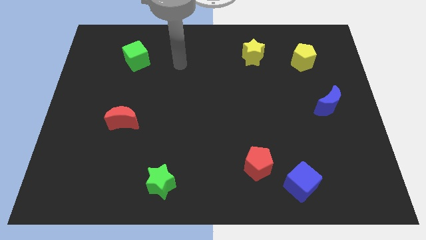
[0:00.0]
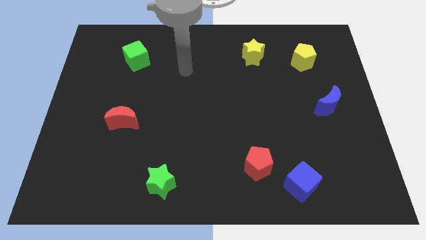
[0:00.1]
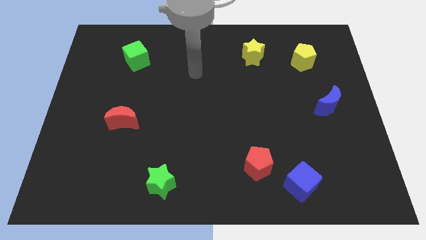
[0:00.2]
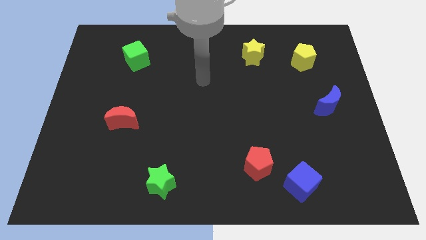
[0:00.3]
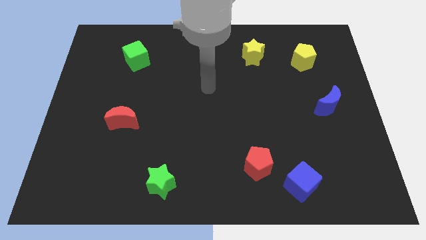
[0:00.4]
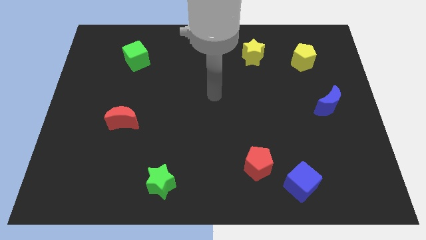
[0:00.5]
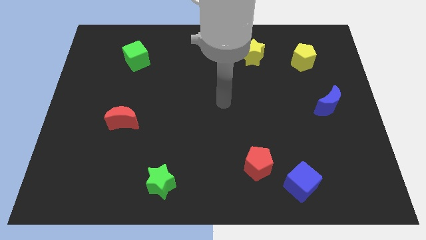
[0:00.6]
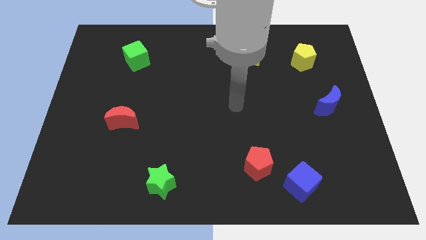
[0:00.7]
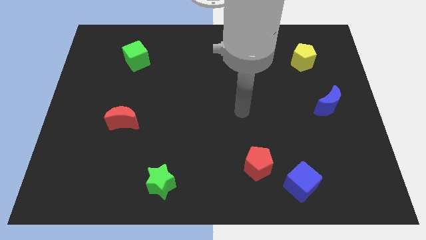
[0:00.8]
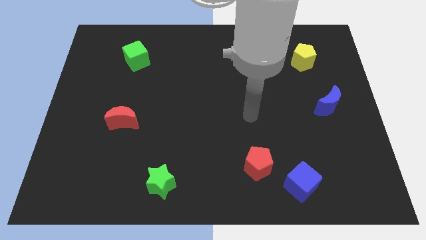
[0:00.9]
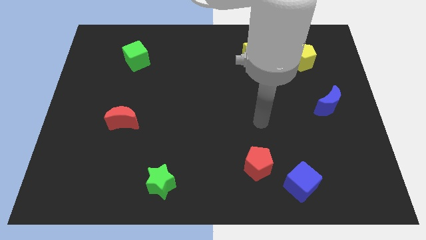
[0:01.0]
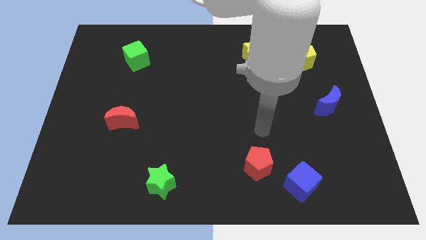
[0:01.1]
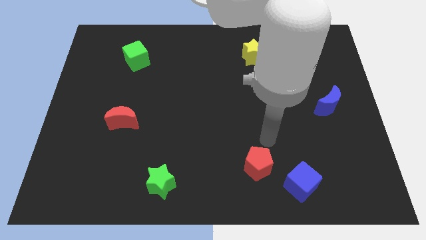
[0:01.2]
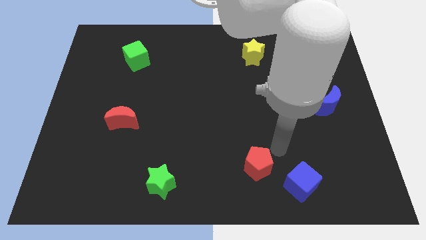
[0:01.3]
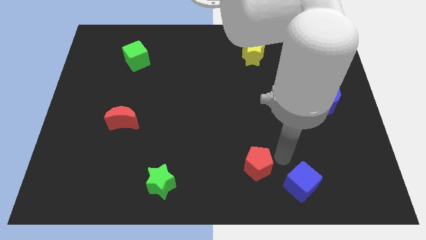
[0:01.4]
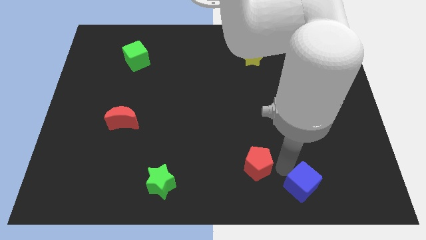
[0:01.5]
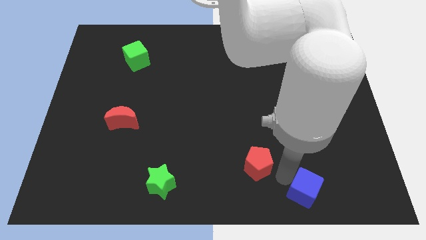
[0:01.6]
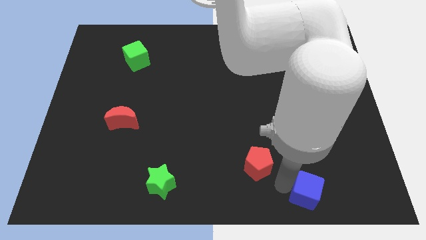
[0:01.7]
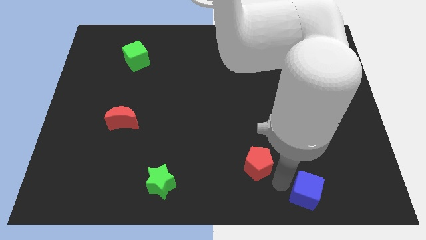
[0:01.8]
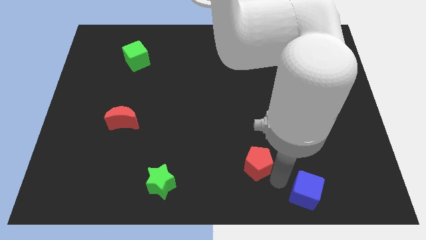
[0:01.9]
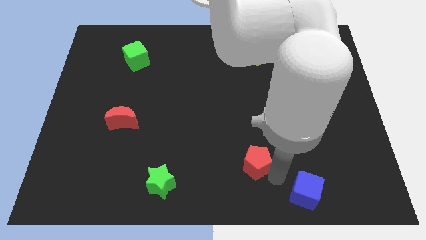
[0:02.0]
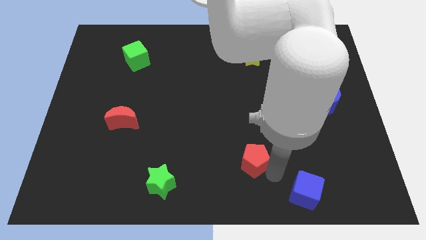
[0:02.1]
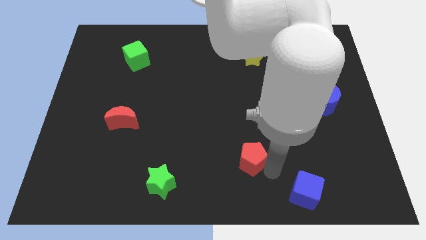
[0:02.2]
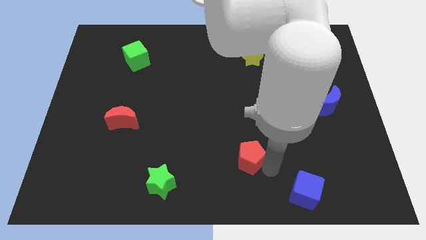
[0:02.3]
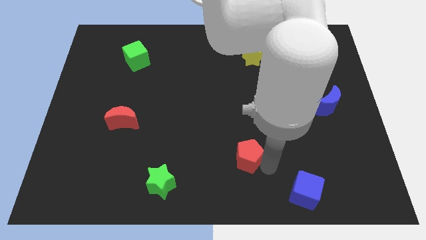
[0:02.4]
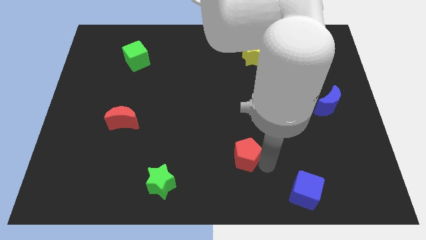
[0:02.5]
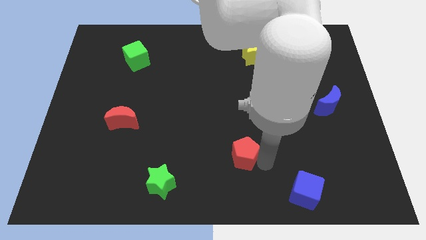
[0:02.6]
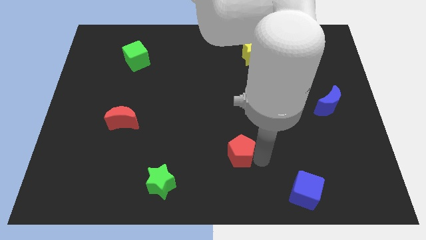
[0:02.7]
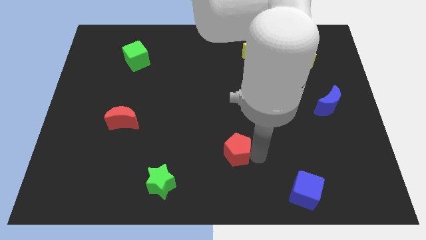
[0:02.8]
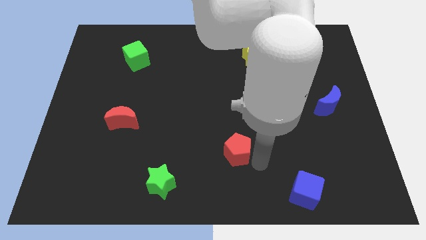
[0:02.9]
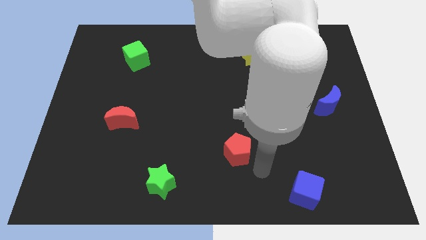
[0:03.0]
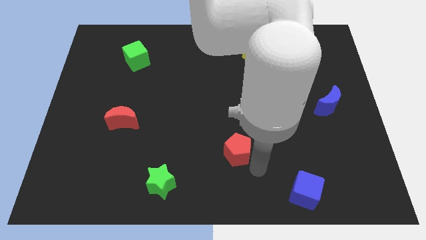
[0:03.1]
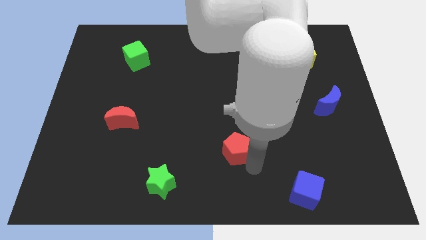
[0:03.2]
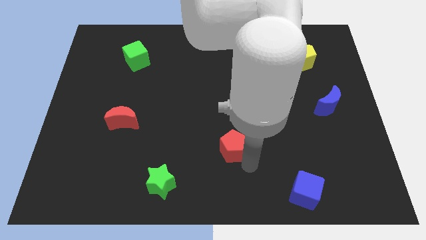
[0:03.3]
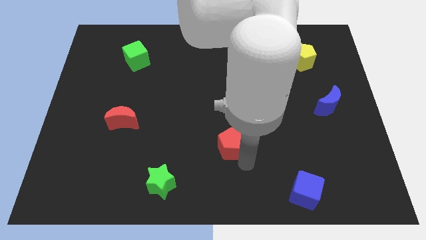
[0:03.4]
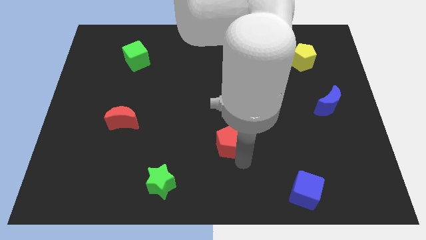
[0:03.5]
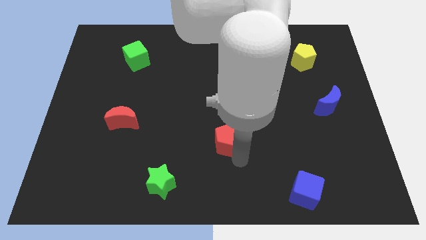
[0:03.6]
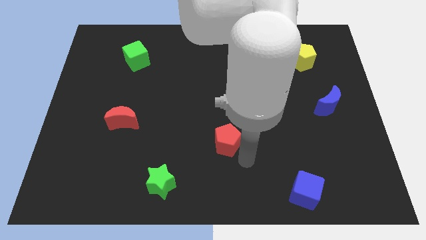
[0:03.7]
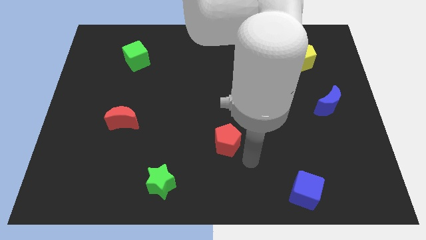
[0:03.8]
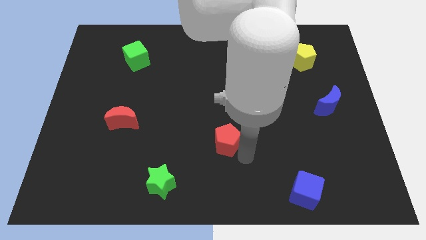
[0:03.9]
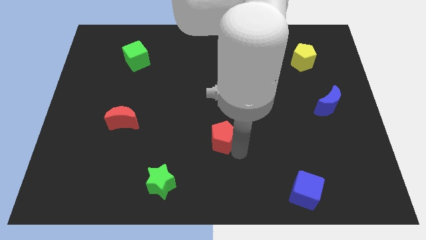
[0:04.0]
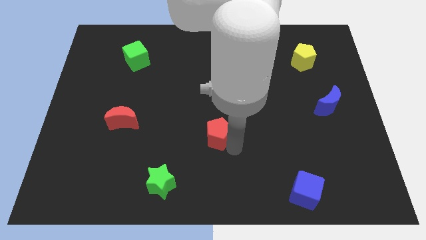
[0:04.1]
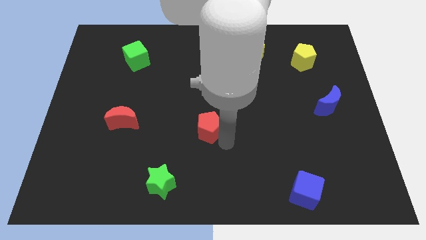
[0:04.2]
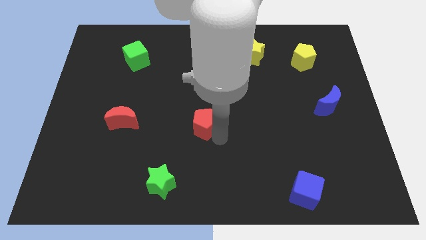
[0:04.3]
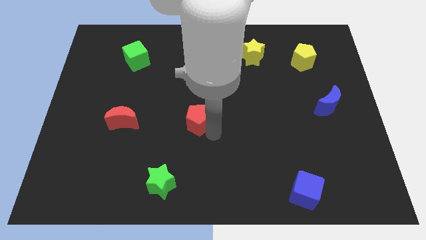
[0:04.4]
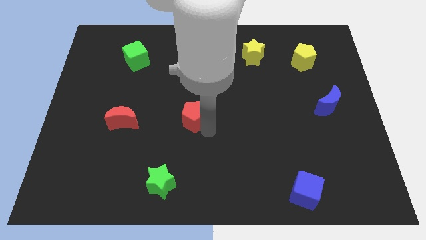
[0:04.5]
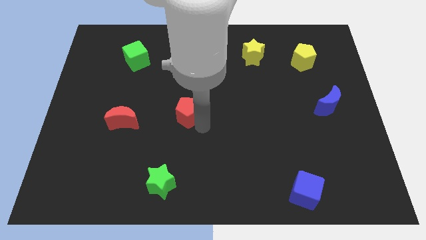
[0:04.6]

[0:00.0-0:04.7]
push the red pentagon upwards and to the left diagonally

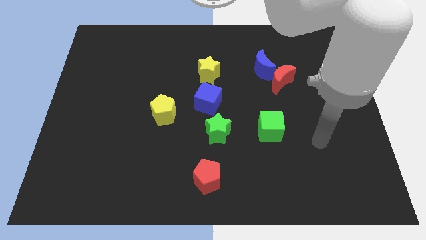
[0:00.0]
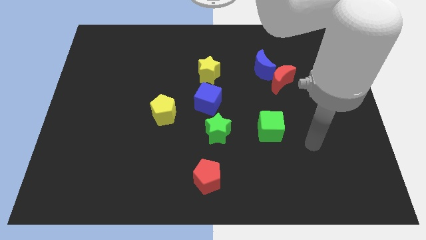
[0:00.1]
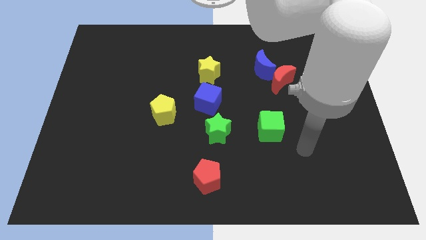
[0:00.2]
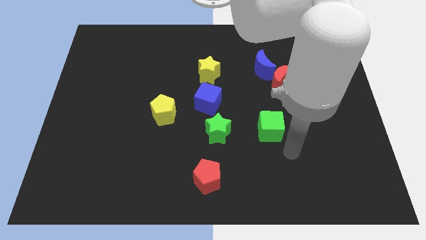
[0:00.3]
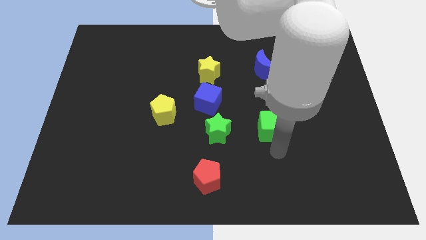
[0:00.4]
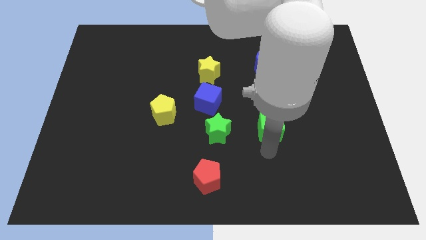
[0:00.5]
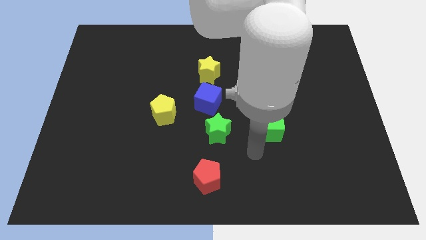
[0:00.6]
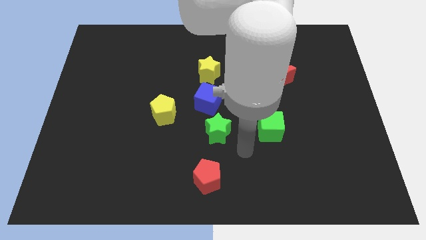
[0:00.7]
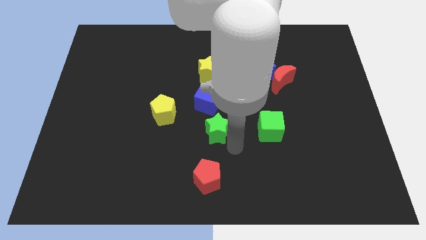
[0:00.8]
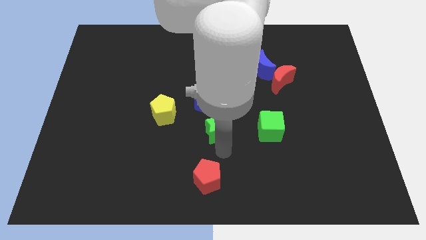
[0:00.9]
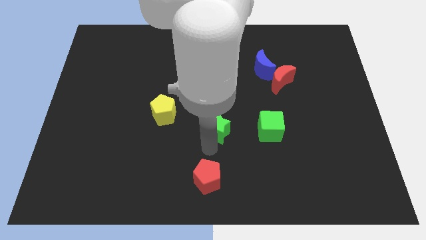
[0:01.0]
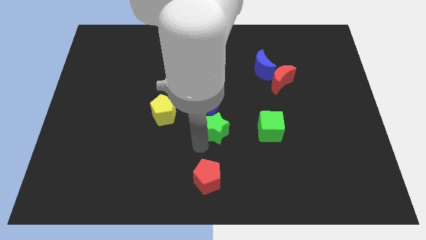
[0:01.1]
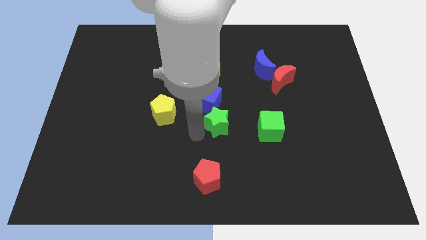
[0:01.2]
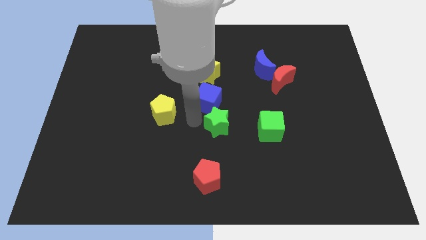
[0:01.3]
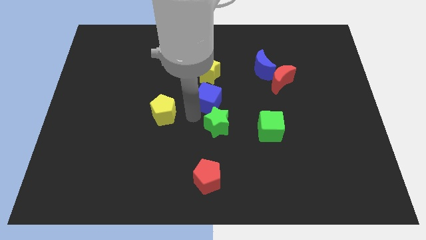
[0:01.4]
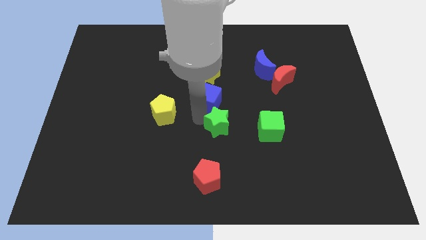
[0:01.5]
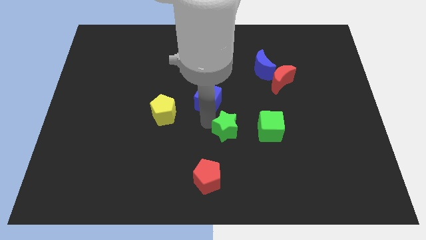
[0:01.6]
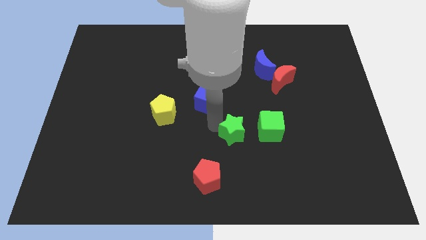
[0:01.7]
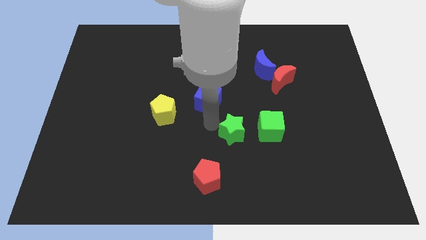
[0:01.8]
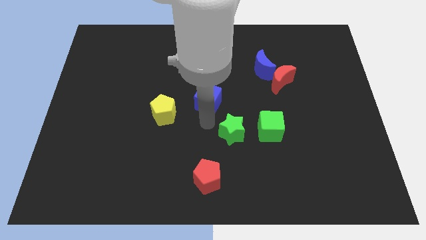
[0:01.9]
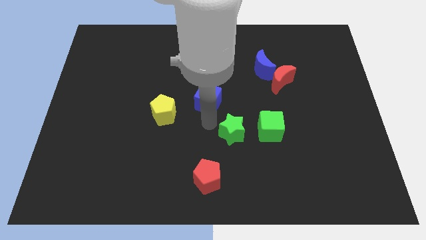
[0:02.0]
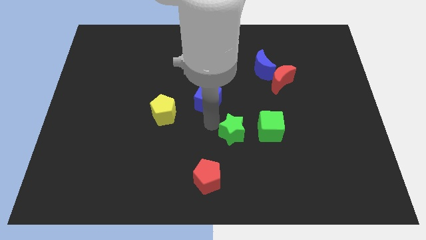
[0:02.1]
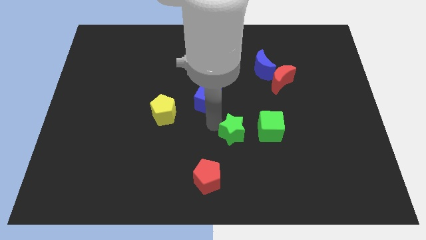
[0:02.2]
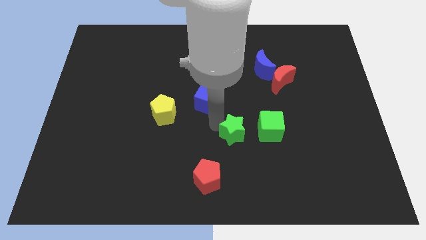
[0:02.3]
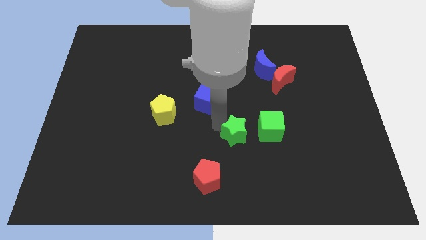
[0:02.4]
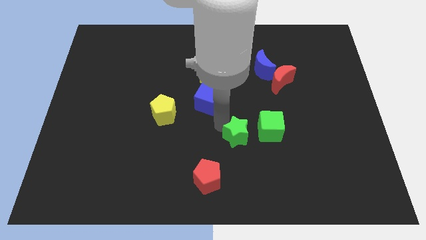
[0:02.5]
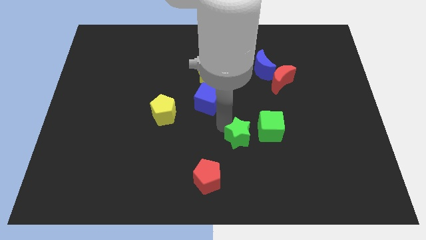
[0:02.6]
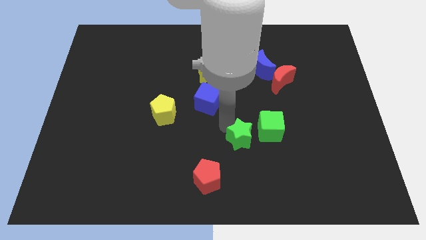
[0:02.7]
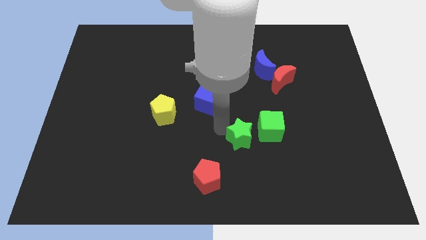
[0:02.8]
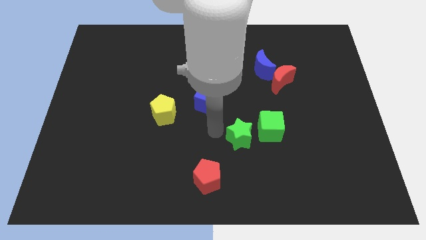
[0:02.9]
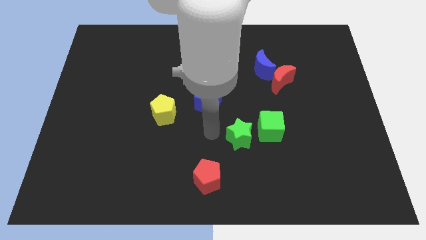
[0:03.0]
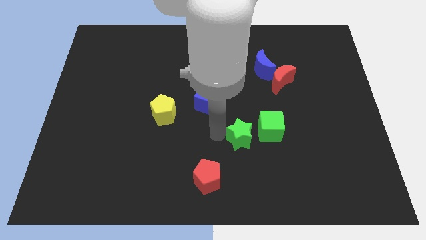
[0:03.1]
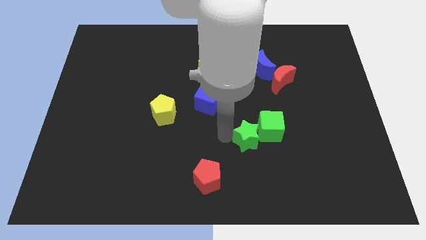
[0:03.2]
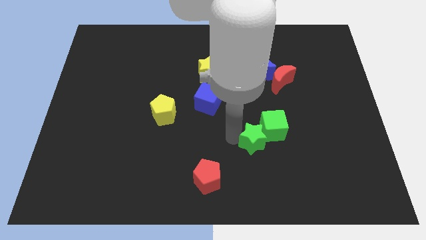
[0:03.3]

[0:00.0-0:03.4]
move the green star to the right a little bit

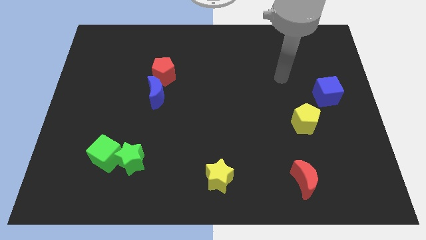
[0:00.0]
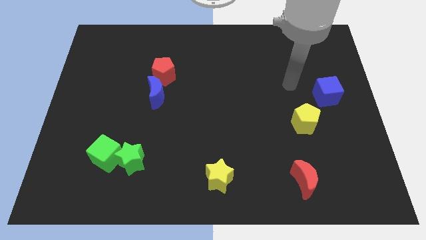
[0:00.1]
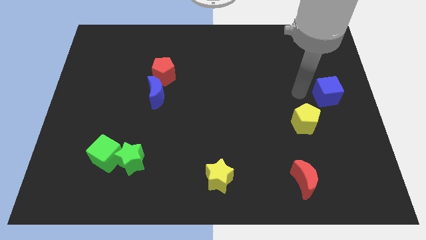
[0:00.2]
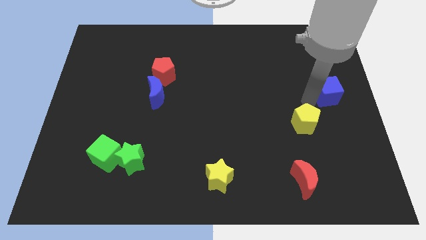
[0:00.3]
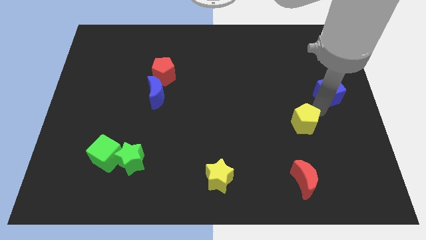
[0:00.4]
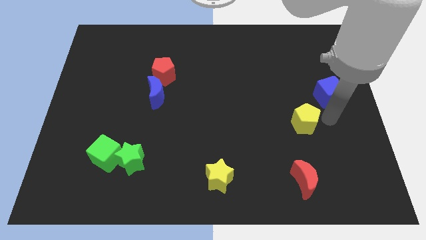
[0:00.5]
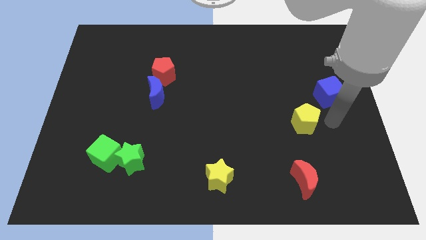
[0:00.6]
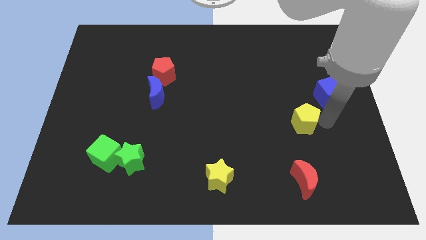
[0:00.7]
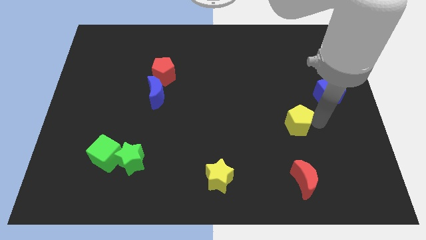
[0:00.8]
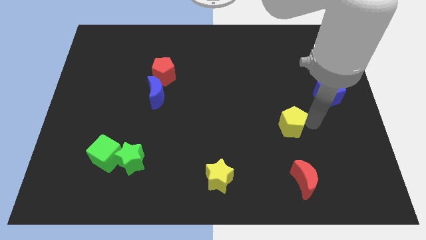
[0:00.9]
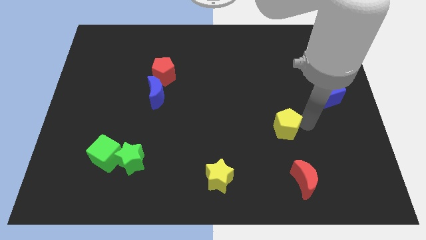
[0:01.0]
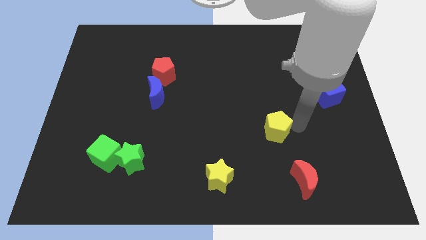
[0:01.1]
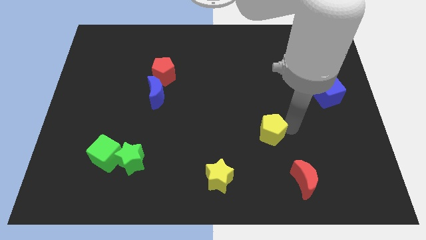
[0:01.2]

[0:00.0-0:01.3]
slightly push the yellow pentagon left
